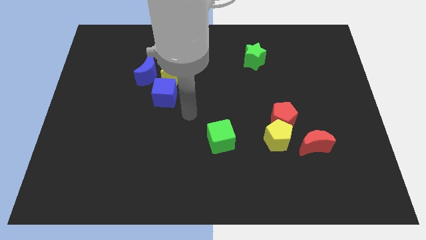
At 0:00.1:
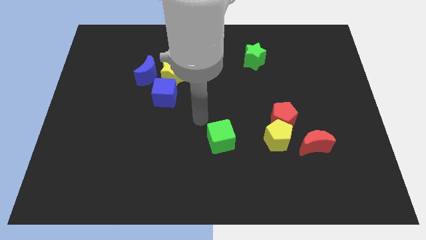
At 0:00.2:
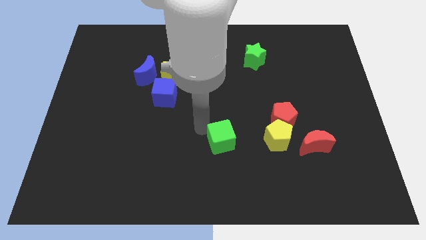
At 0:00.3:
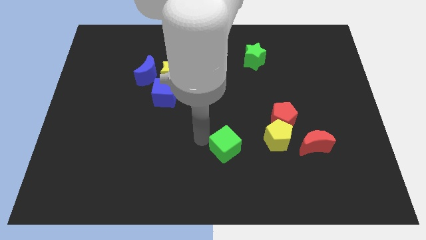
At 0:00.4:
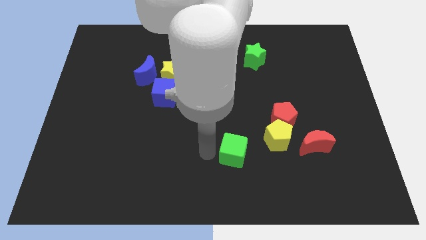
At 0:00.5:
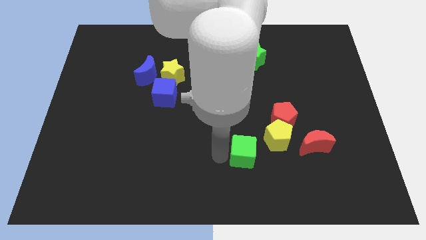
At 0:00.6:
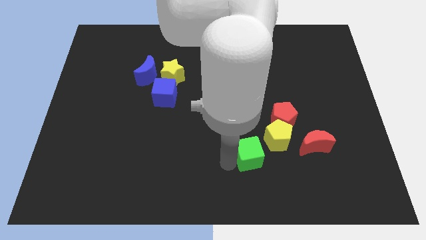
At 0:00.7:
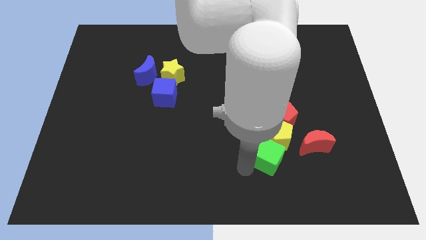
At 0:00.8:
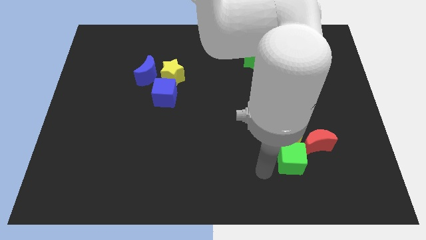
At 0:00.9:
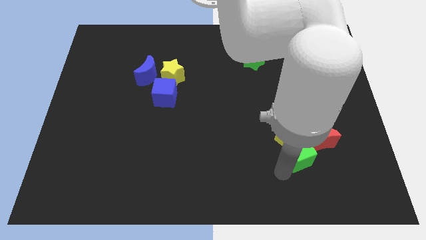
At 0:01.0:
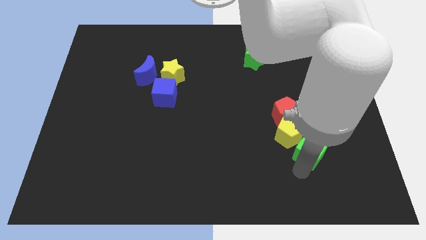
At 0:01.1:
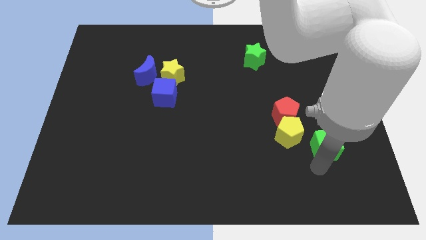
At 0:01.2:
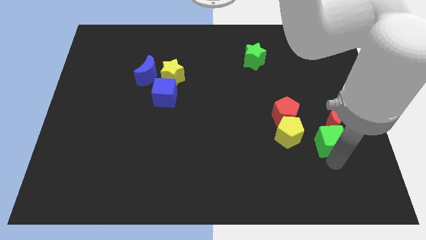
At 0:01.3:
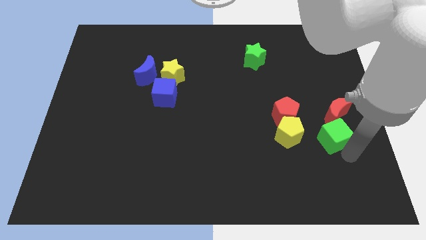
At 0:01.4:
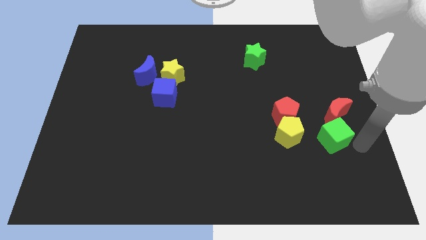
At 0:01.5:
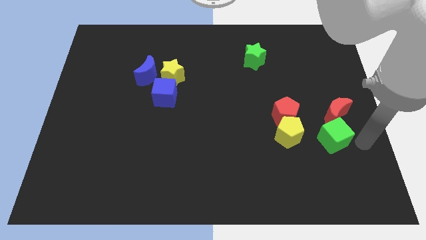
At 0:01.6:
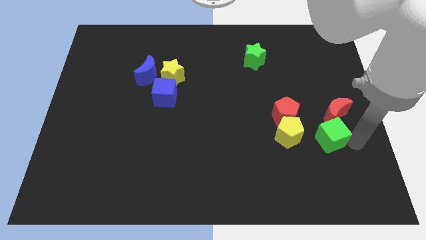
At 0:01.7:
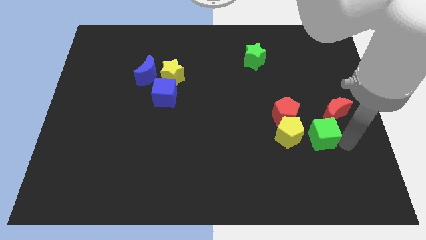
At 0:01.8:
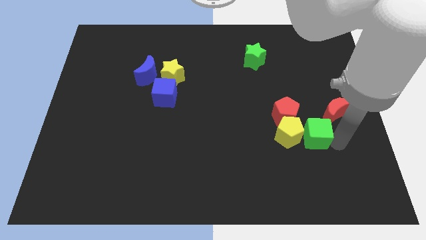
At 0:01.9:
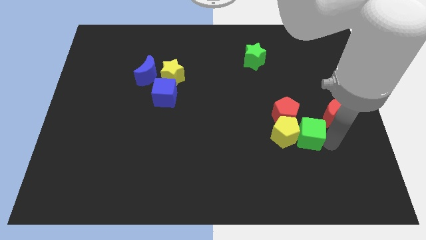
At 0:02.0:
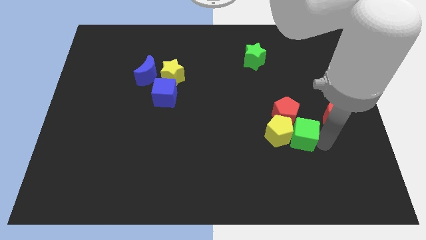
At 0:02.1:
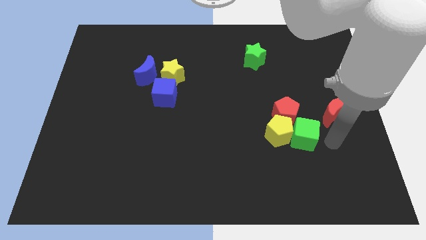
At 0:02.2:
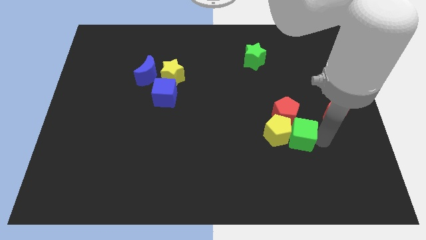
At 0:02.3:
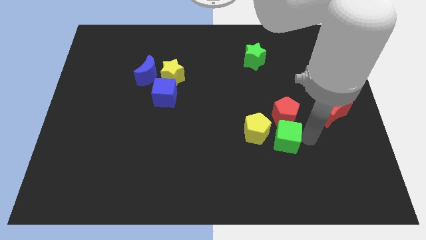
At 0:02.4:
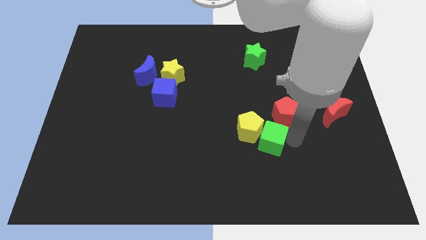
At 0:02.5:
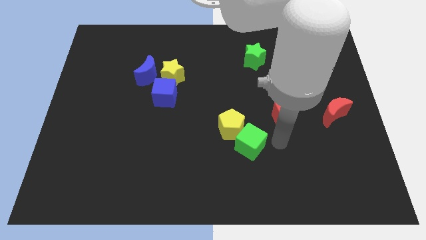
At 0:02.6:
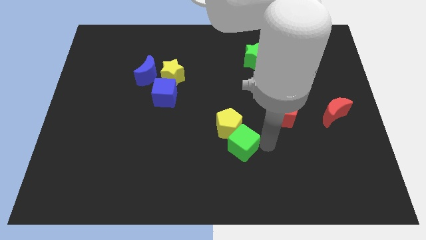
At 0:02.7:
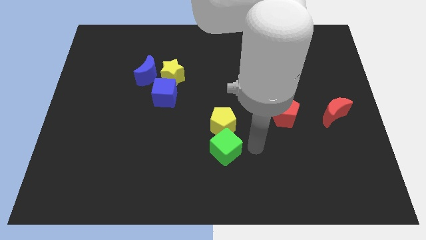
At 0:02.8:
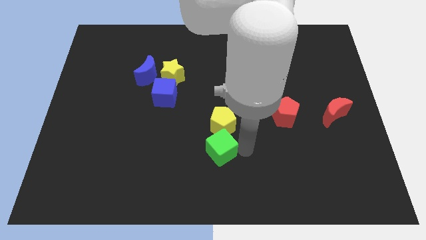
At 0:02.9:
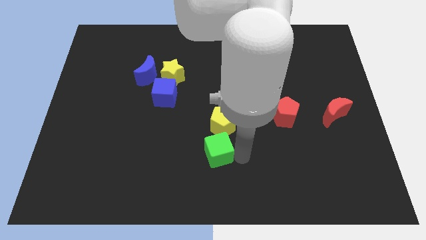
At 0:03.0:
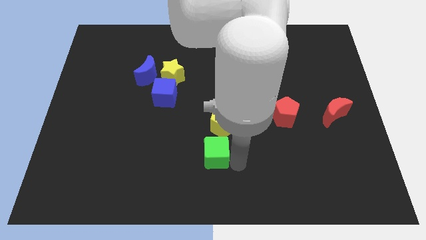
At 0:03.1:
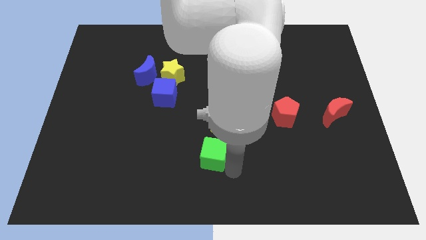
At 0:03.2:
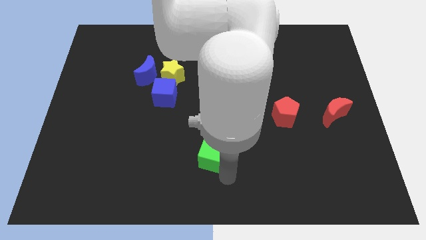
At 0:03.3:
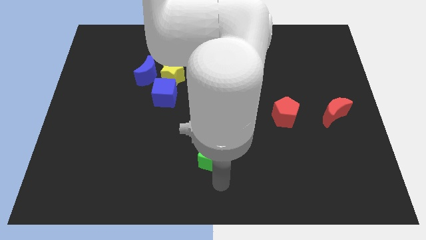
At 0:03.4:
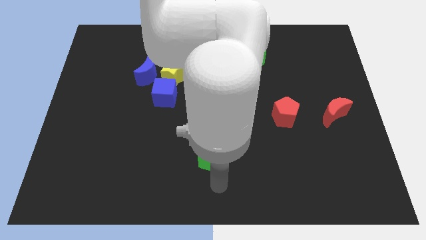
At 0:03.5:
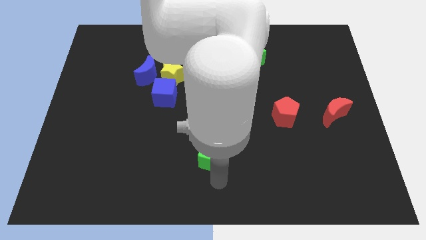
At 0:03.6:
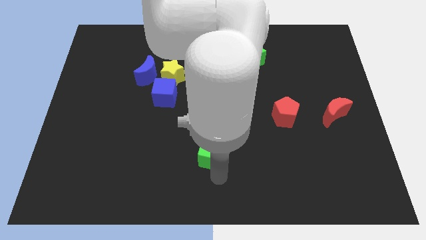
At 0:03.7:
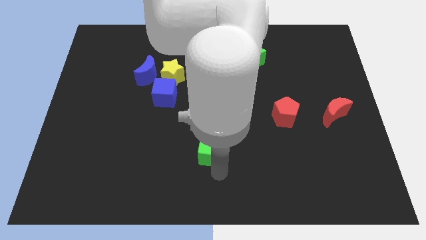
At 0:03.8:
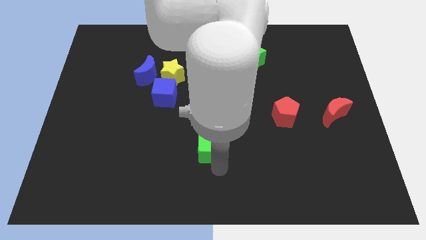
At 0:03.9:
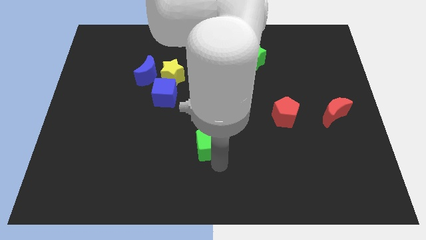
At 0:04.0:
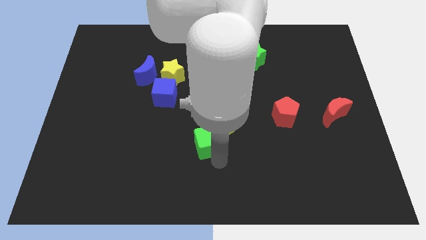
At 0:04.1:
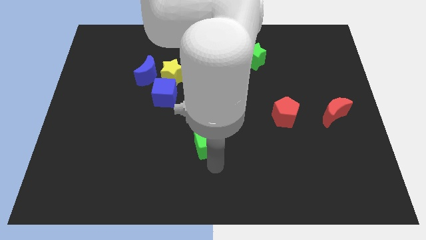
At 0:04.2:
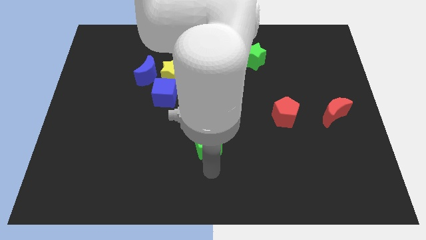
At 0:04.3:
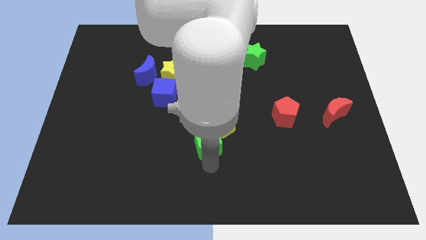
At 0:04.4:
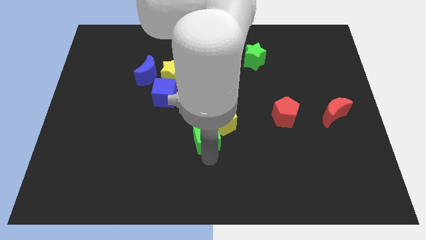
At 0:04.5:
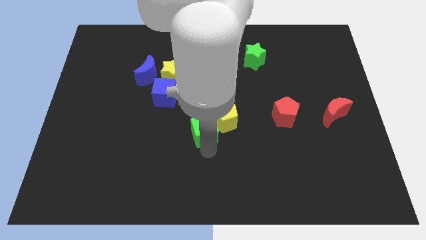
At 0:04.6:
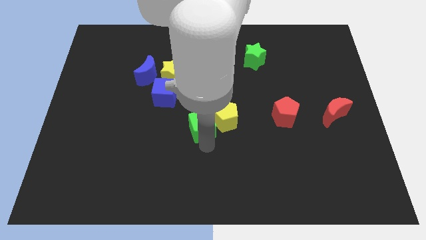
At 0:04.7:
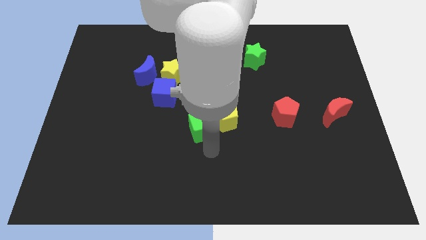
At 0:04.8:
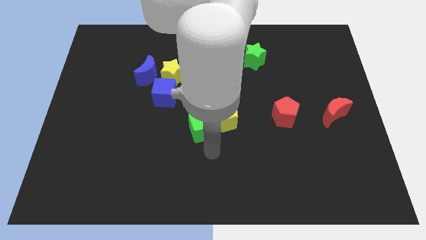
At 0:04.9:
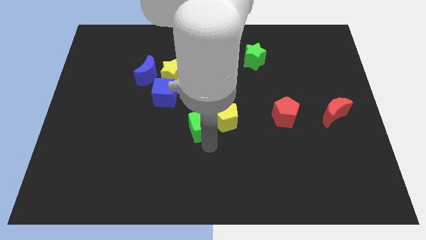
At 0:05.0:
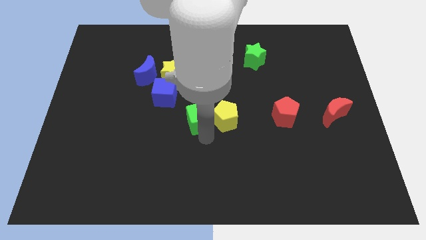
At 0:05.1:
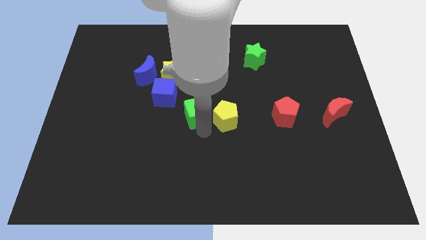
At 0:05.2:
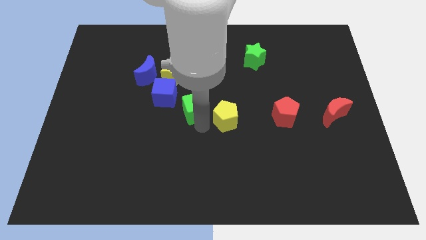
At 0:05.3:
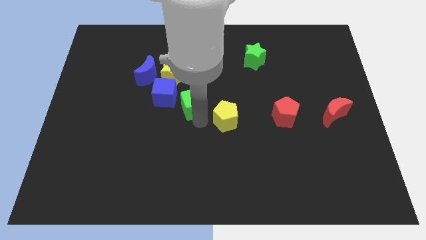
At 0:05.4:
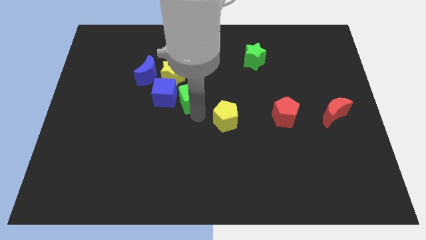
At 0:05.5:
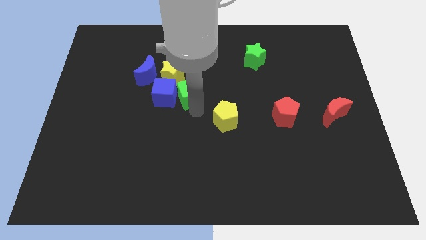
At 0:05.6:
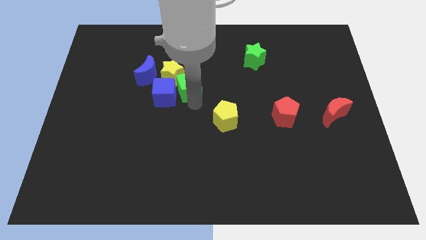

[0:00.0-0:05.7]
slide the green cube towards the yellow star

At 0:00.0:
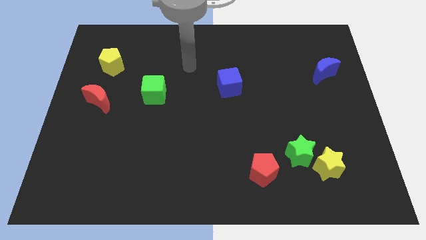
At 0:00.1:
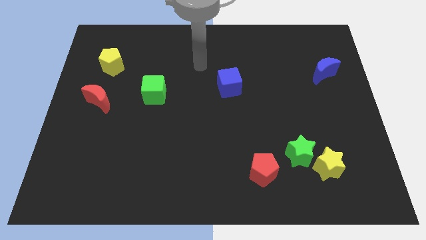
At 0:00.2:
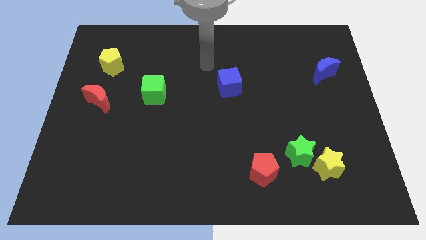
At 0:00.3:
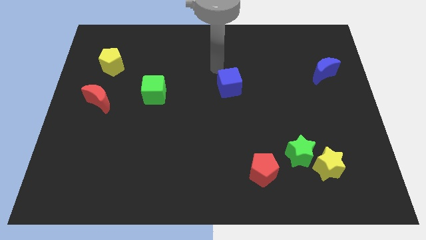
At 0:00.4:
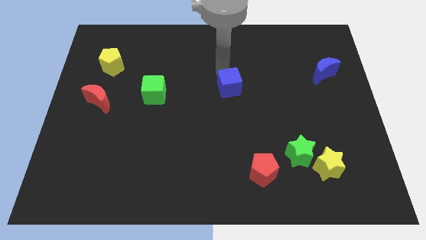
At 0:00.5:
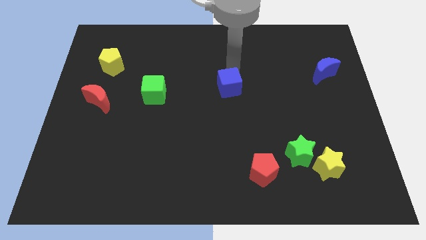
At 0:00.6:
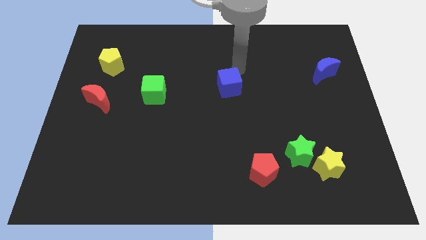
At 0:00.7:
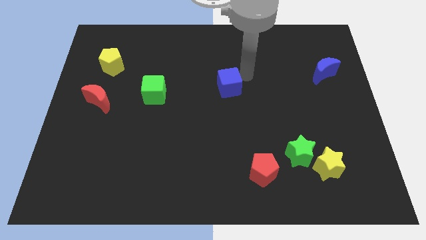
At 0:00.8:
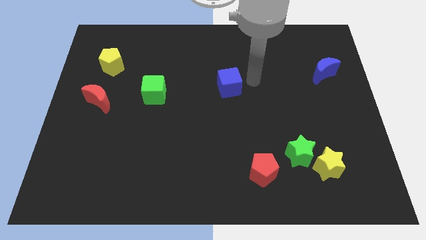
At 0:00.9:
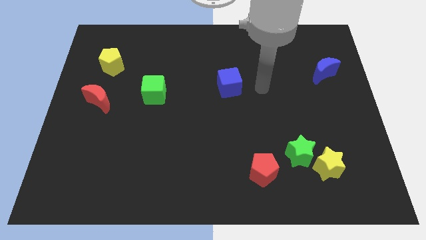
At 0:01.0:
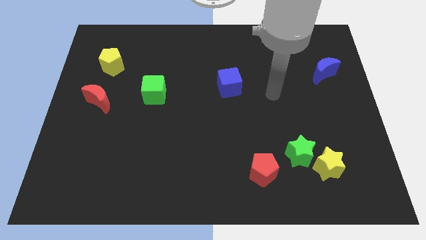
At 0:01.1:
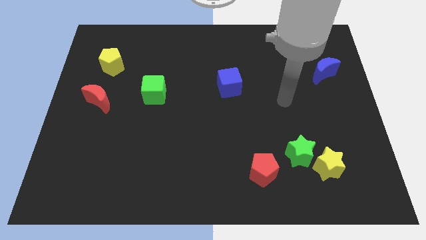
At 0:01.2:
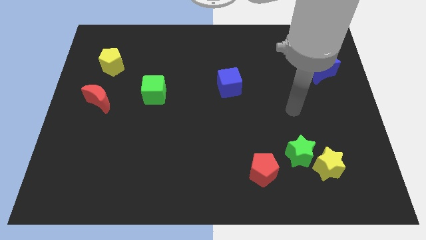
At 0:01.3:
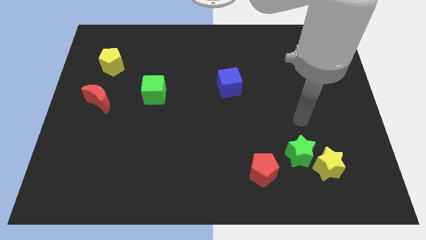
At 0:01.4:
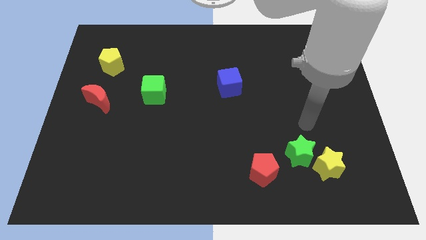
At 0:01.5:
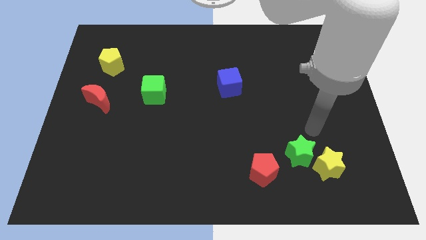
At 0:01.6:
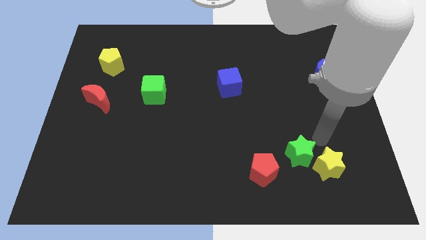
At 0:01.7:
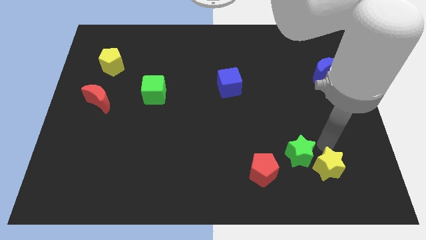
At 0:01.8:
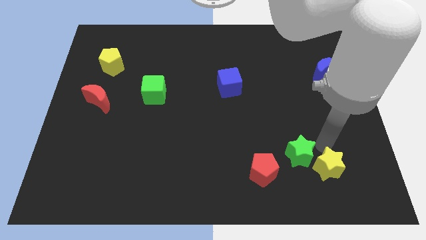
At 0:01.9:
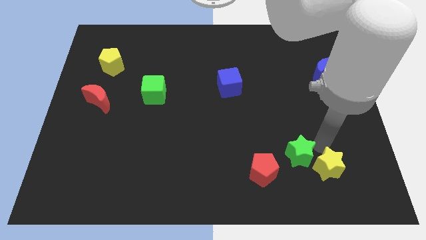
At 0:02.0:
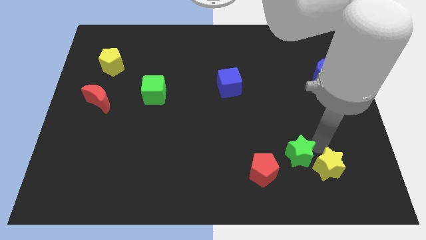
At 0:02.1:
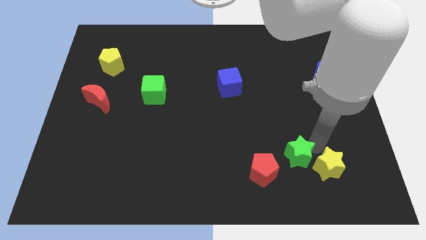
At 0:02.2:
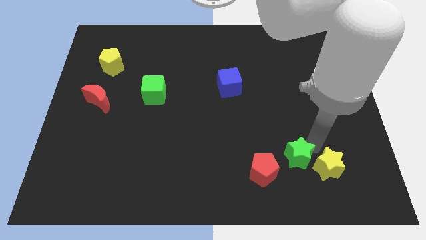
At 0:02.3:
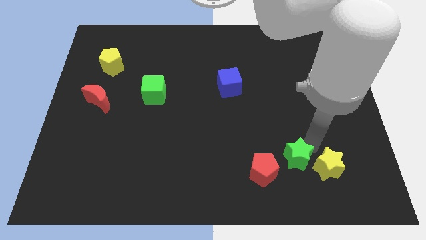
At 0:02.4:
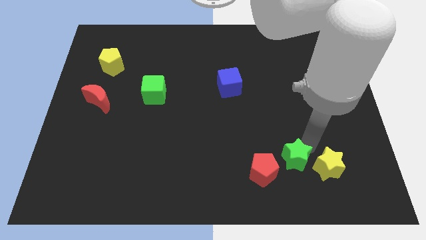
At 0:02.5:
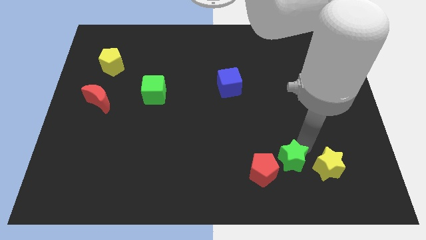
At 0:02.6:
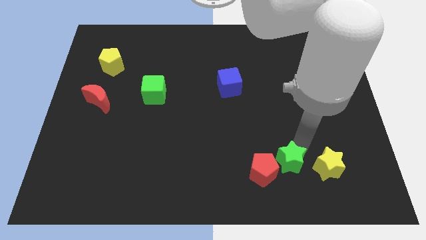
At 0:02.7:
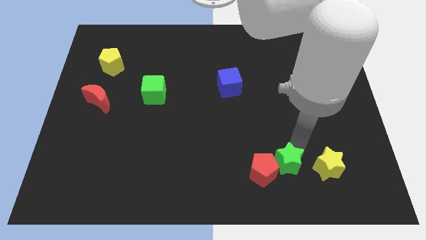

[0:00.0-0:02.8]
move the green star close to the red pentagon
